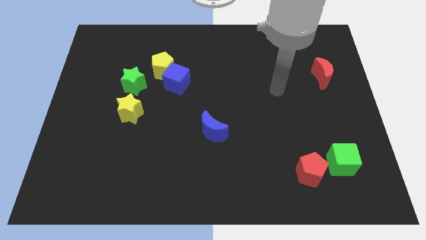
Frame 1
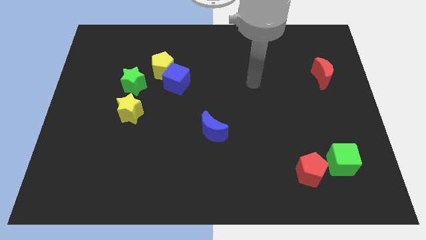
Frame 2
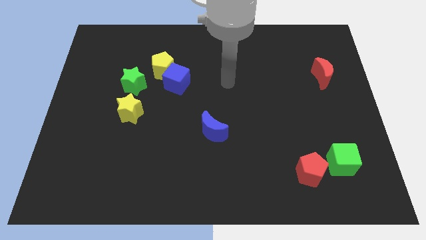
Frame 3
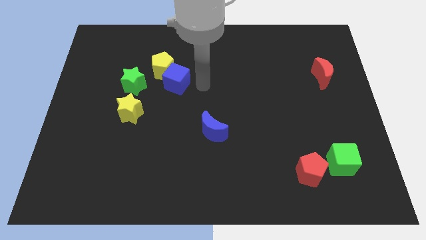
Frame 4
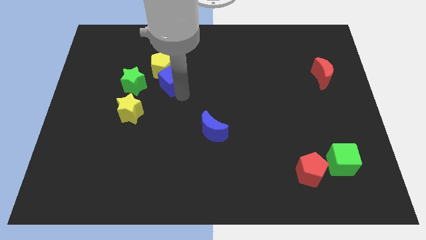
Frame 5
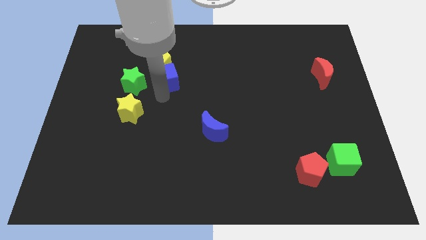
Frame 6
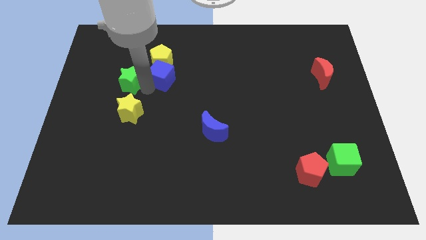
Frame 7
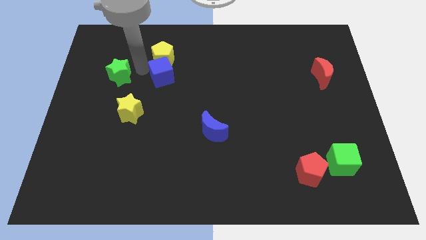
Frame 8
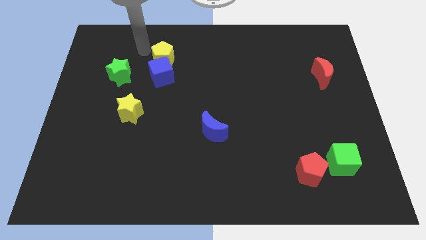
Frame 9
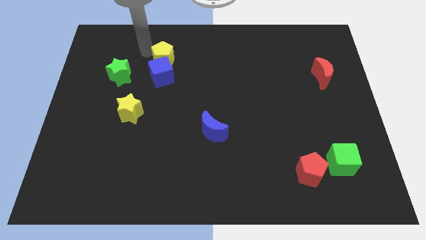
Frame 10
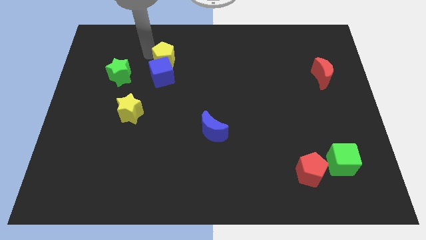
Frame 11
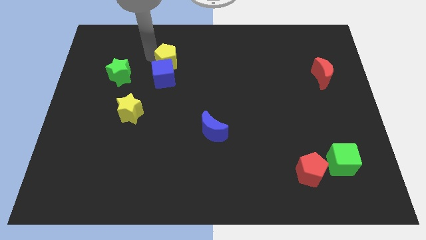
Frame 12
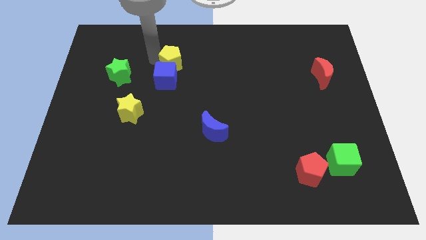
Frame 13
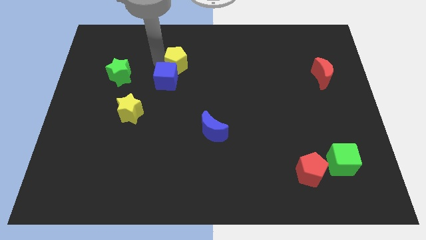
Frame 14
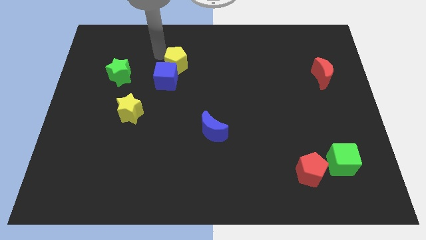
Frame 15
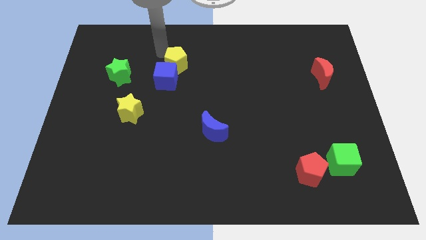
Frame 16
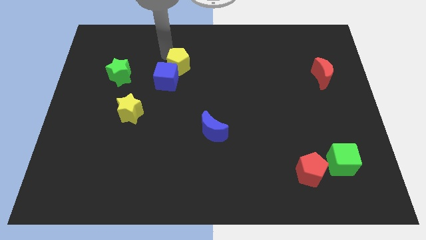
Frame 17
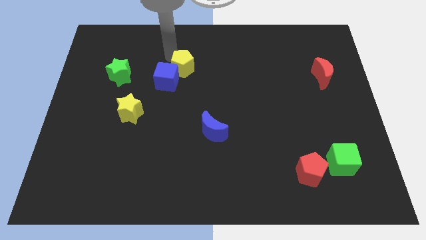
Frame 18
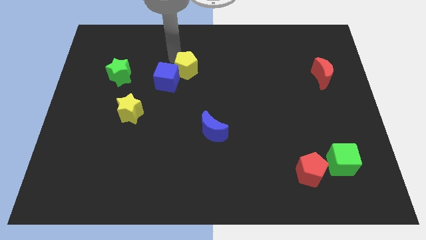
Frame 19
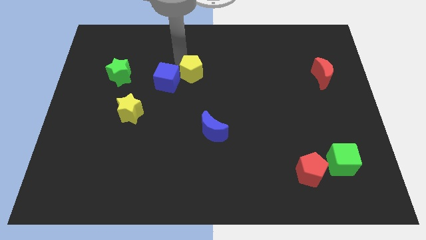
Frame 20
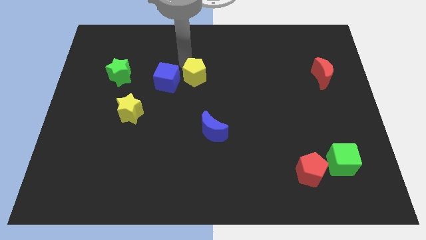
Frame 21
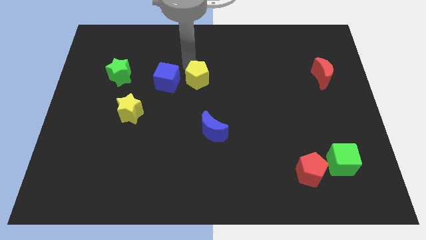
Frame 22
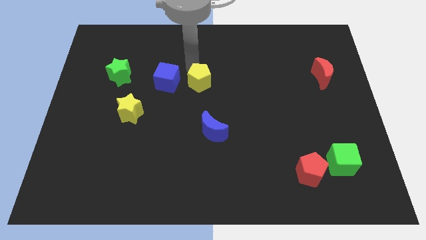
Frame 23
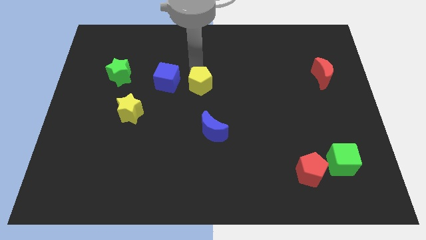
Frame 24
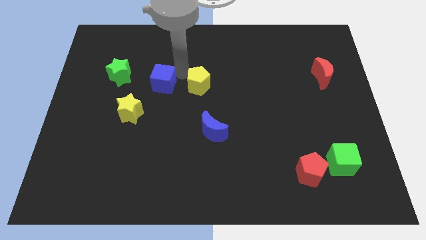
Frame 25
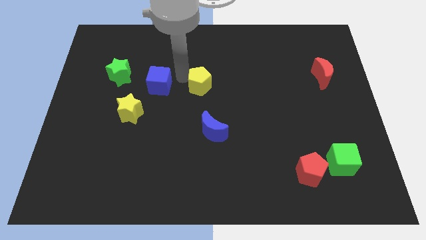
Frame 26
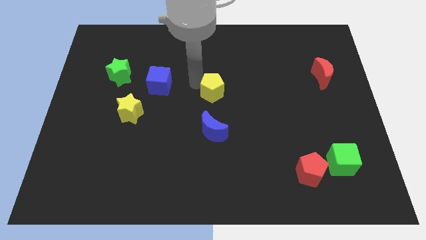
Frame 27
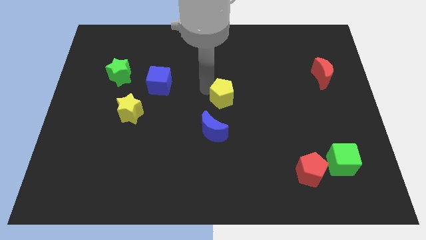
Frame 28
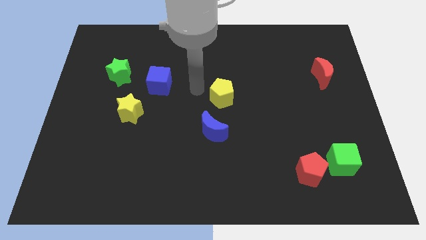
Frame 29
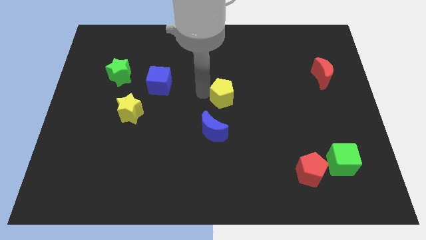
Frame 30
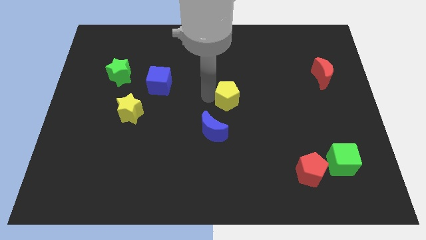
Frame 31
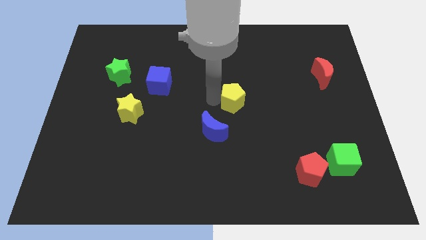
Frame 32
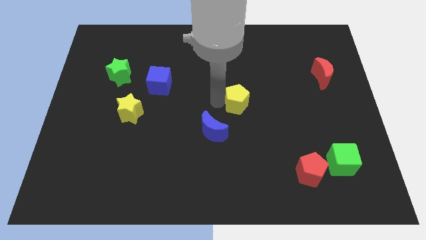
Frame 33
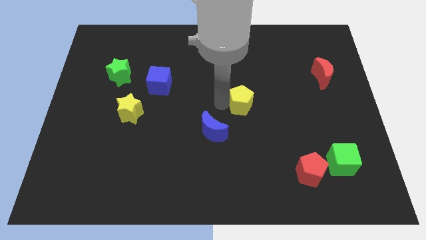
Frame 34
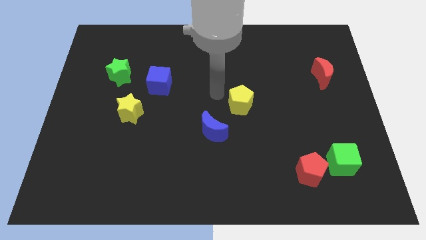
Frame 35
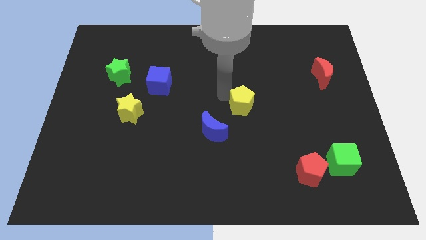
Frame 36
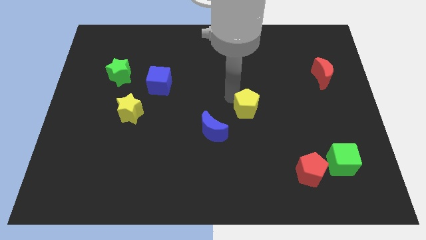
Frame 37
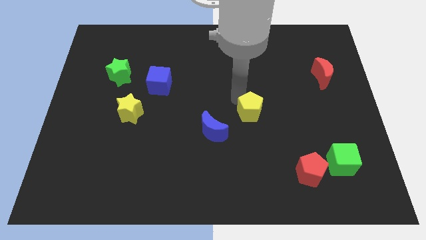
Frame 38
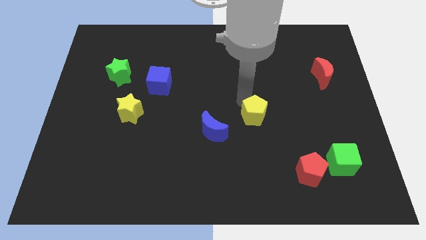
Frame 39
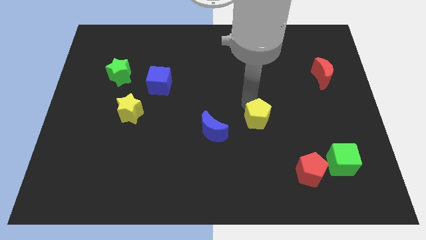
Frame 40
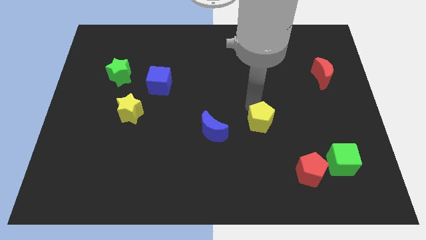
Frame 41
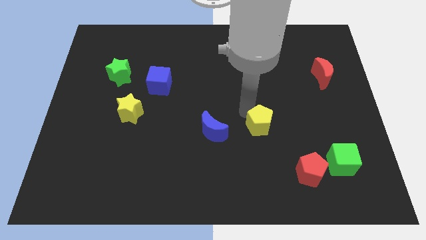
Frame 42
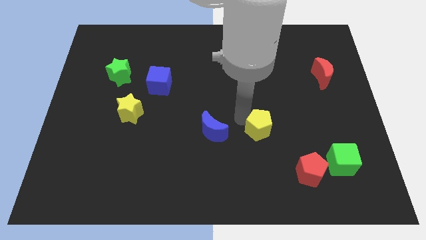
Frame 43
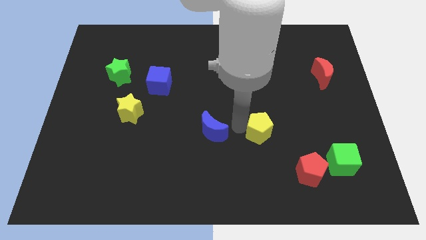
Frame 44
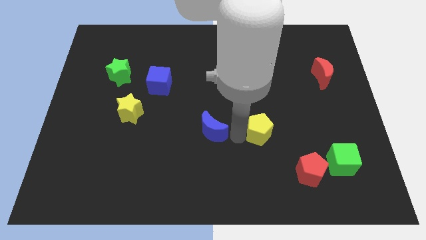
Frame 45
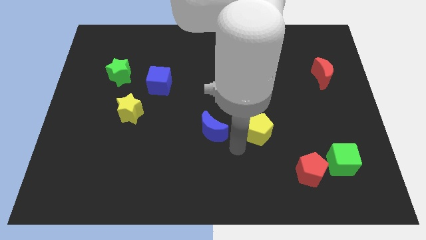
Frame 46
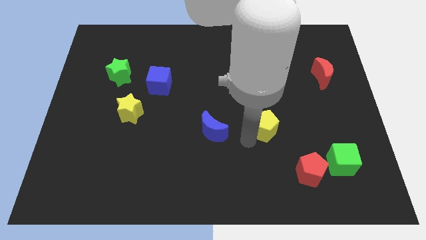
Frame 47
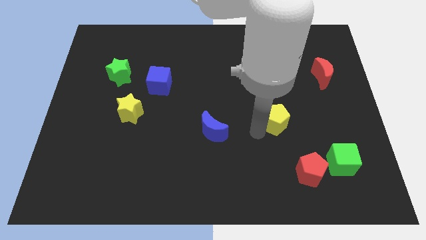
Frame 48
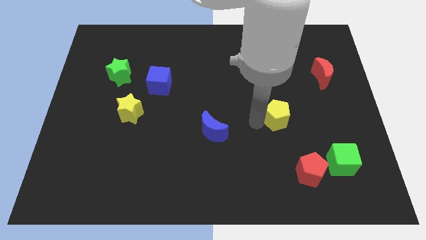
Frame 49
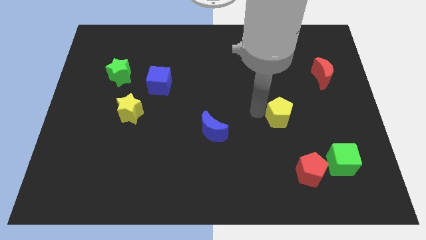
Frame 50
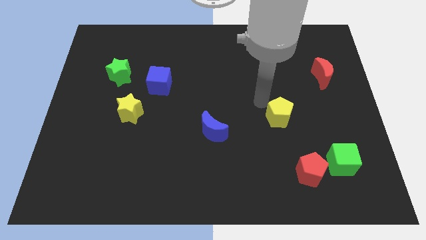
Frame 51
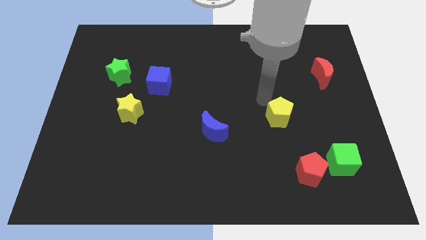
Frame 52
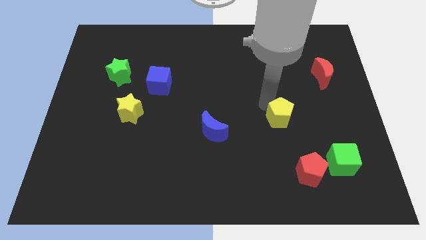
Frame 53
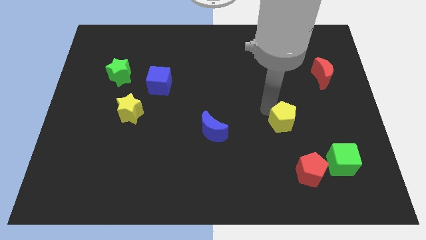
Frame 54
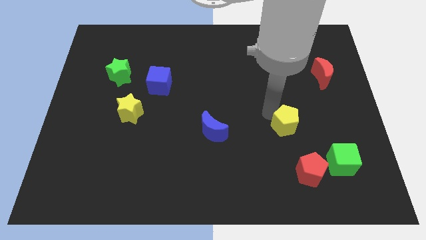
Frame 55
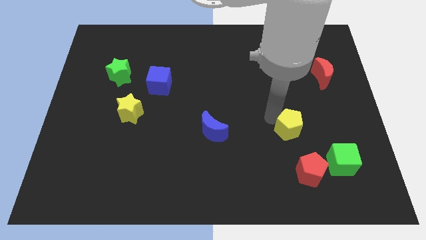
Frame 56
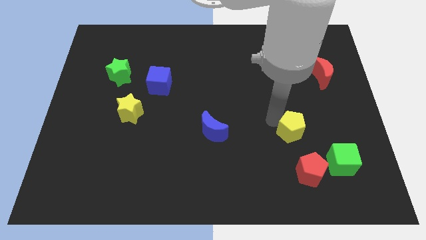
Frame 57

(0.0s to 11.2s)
put the yellow pentagon to the top left side of the green cube

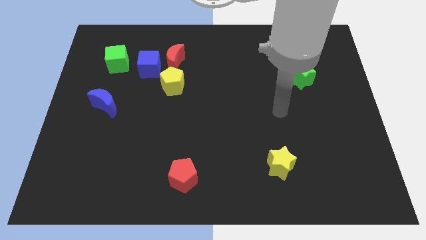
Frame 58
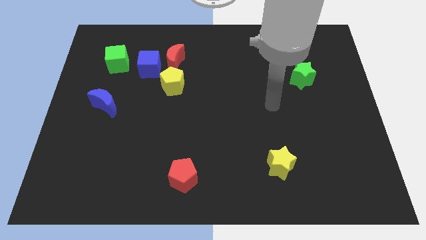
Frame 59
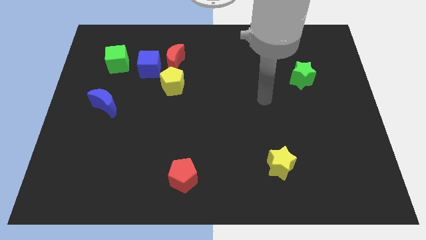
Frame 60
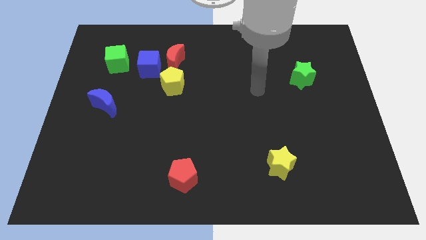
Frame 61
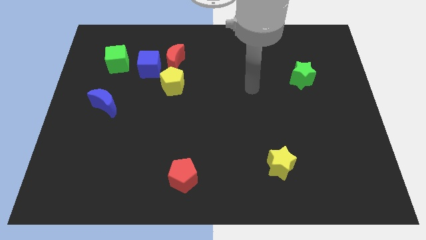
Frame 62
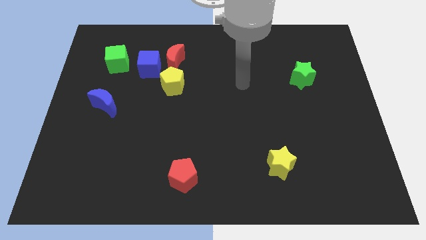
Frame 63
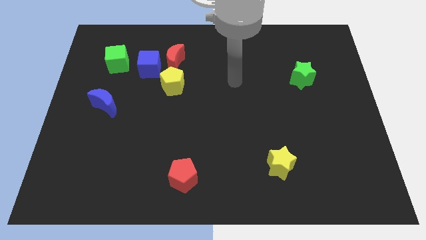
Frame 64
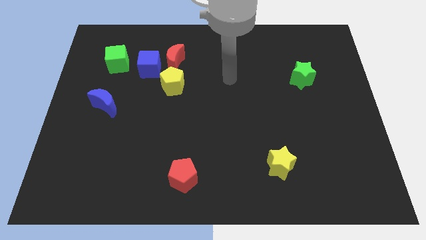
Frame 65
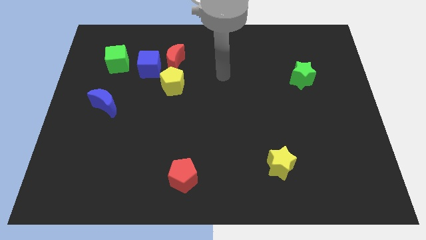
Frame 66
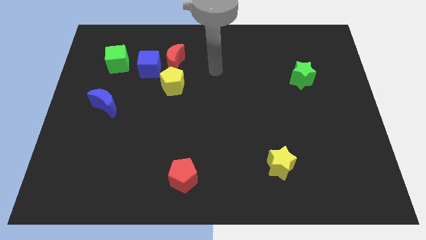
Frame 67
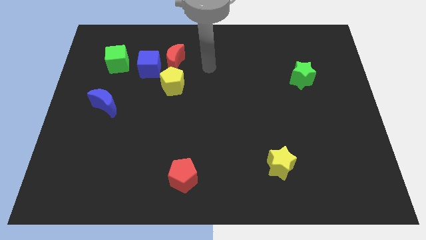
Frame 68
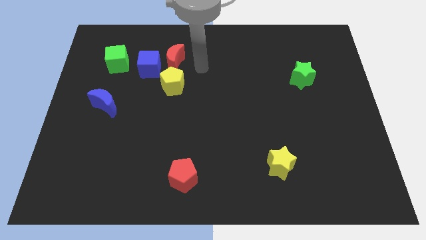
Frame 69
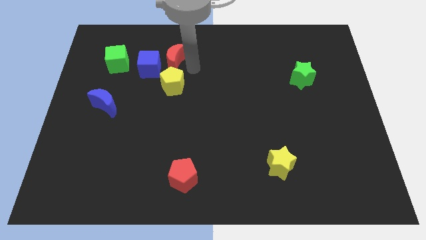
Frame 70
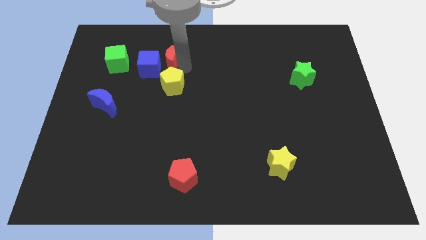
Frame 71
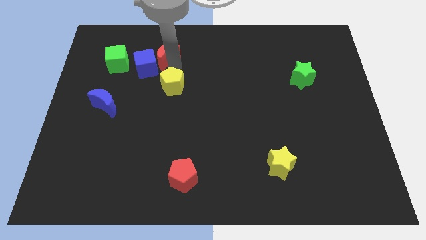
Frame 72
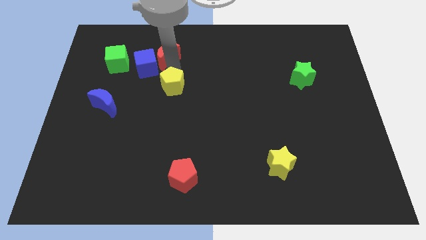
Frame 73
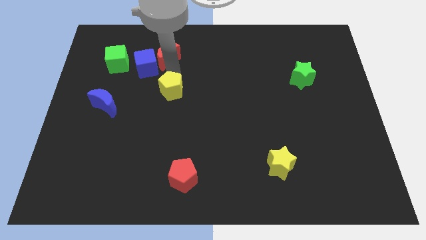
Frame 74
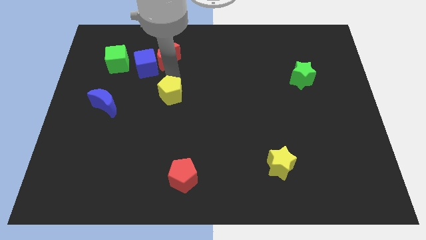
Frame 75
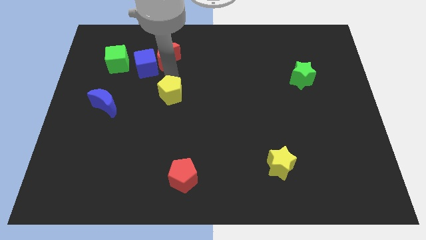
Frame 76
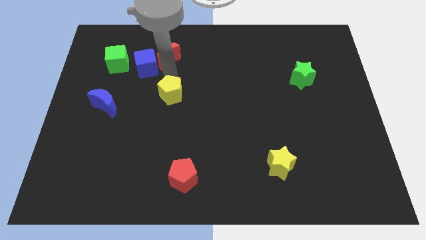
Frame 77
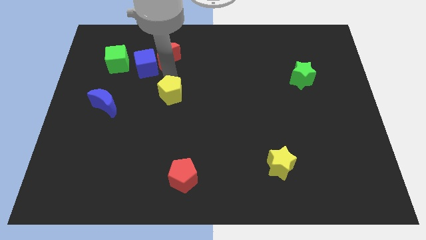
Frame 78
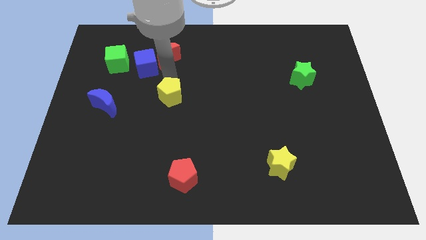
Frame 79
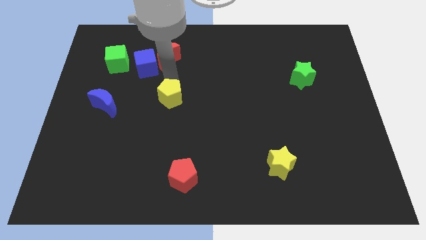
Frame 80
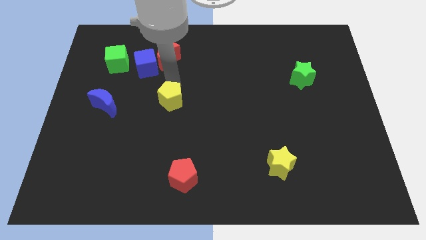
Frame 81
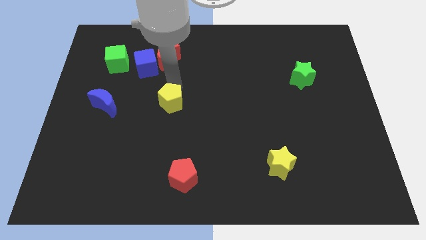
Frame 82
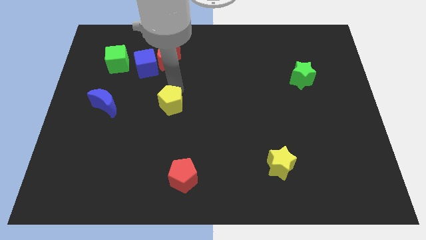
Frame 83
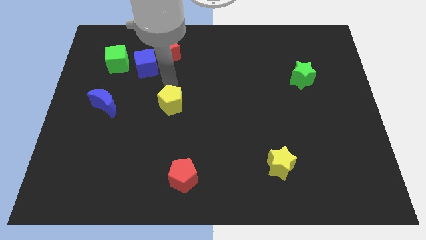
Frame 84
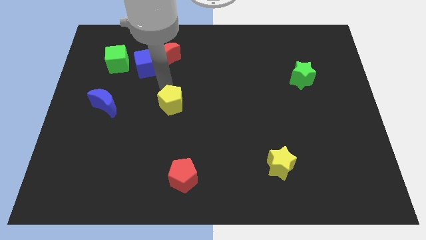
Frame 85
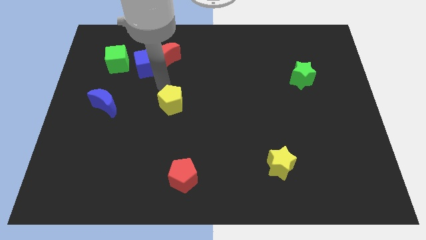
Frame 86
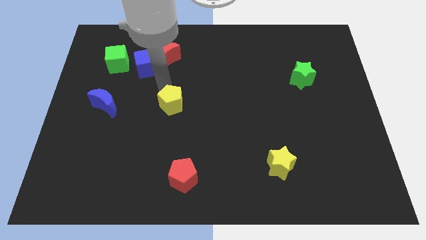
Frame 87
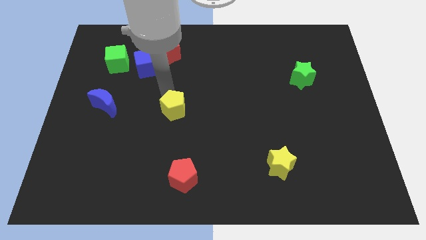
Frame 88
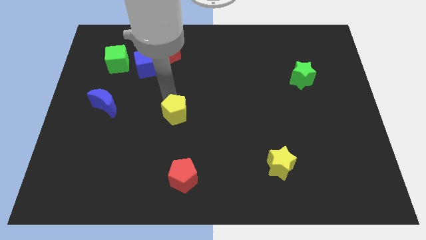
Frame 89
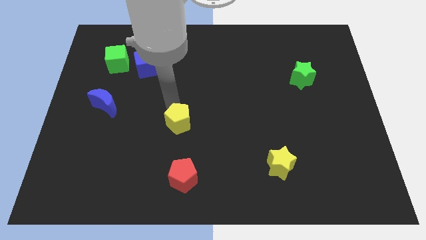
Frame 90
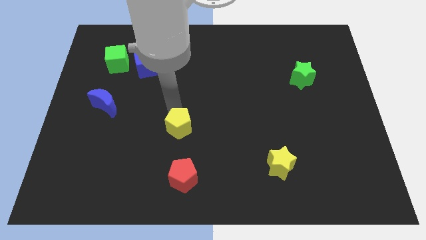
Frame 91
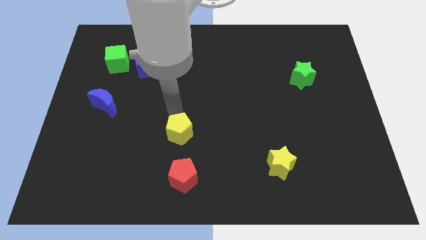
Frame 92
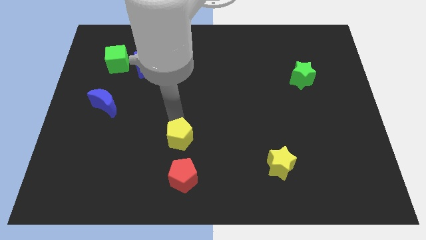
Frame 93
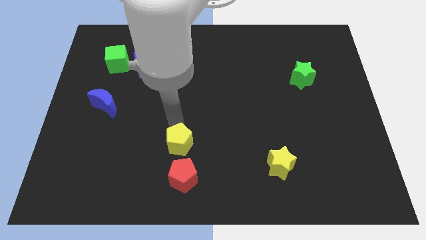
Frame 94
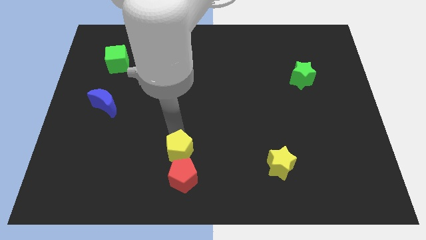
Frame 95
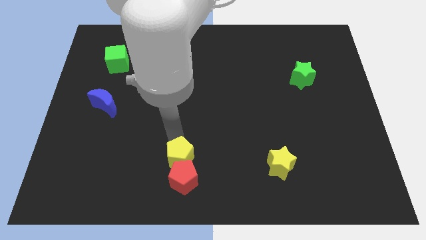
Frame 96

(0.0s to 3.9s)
slide the yellow pentagon diagonally up and to the right of the red pentagon
